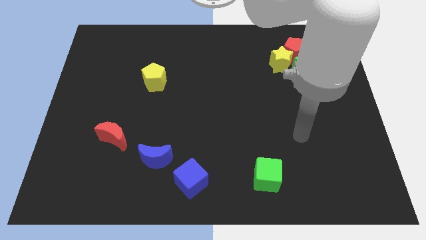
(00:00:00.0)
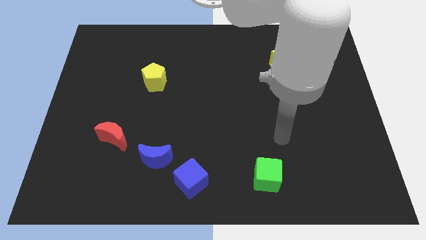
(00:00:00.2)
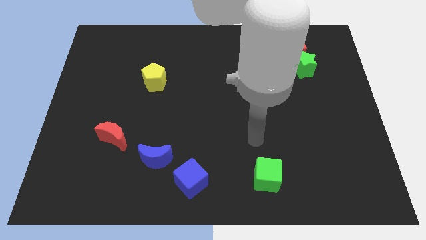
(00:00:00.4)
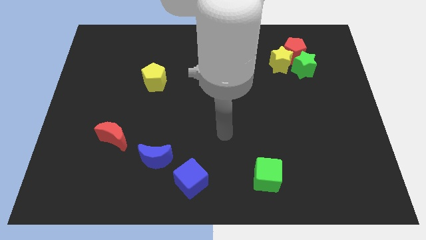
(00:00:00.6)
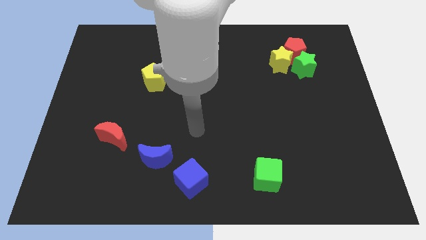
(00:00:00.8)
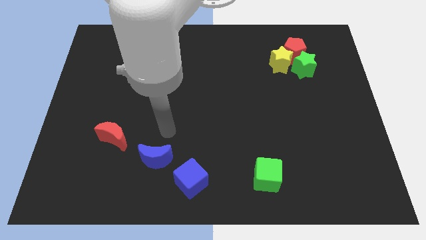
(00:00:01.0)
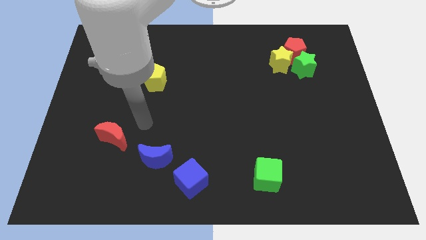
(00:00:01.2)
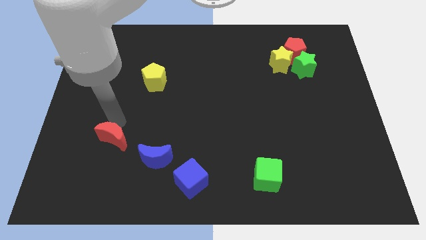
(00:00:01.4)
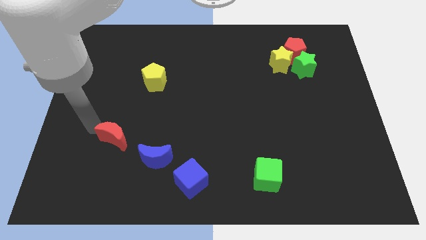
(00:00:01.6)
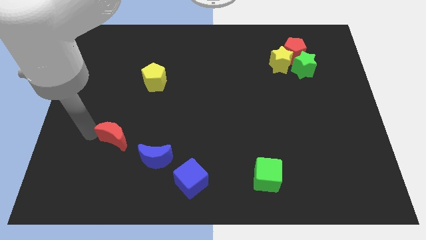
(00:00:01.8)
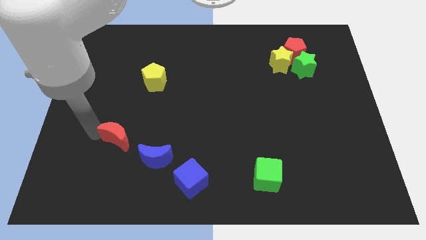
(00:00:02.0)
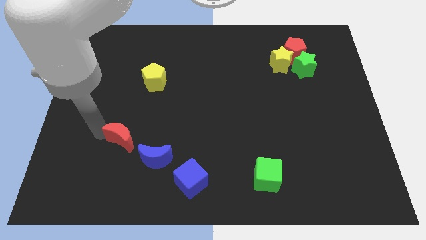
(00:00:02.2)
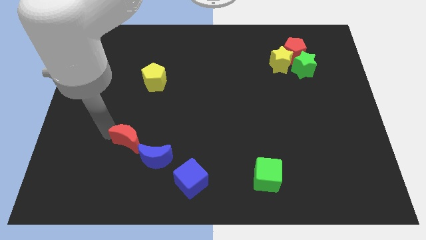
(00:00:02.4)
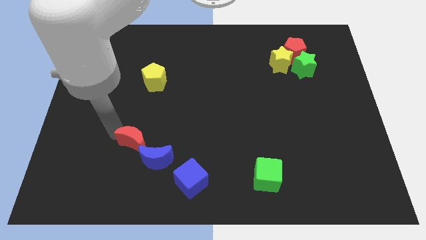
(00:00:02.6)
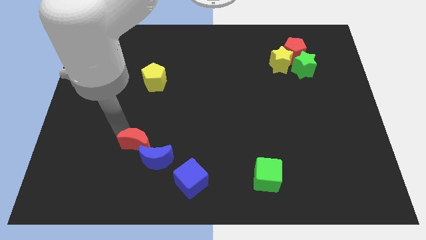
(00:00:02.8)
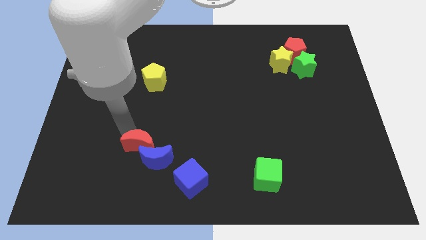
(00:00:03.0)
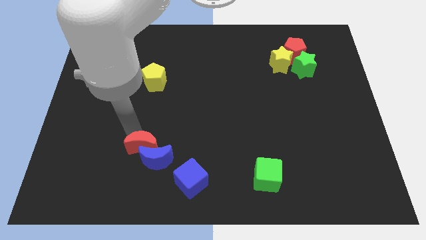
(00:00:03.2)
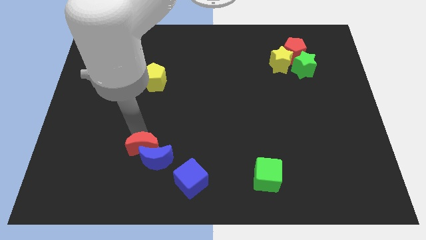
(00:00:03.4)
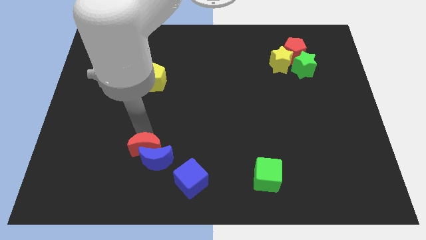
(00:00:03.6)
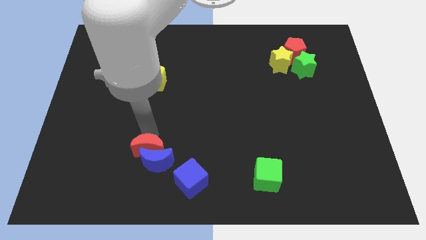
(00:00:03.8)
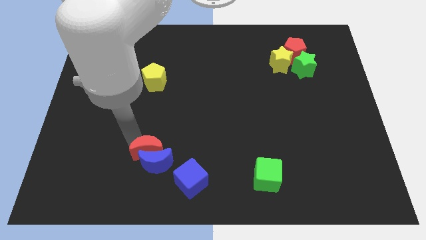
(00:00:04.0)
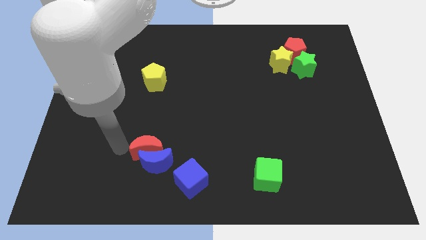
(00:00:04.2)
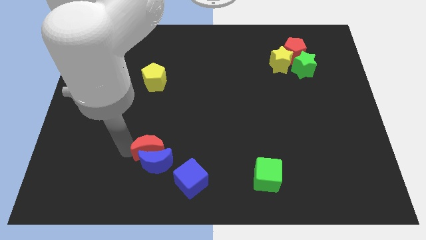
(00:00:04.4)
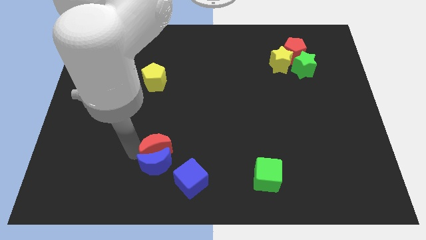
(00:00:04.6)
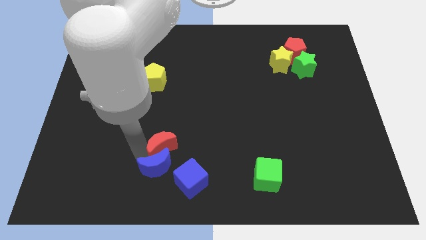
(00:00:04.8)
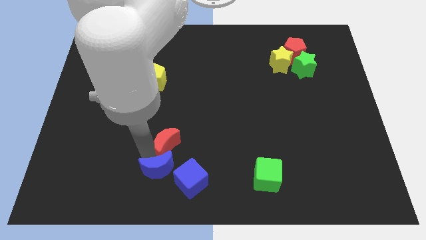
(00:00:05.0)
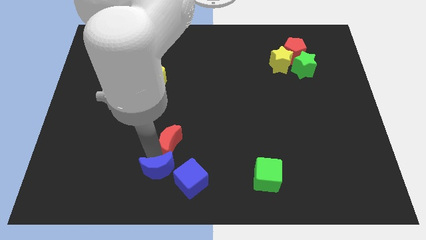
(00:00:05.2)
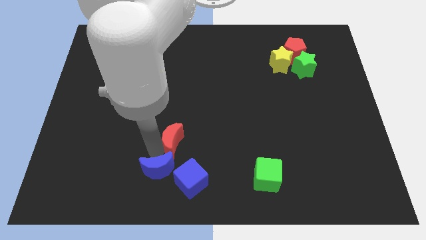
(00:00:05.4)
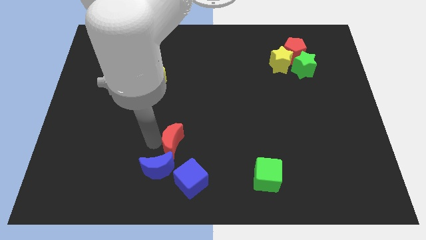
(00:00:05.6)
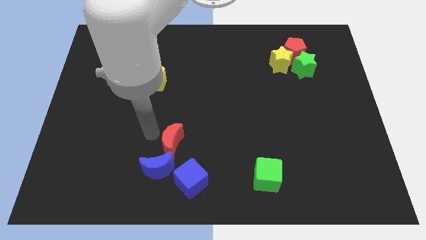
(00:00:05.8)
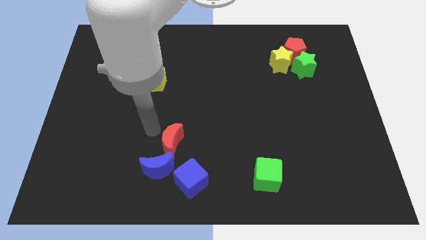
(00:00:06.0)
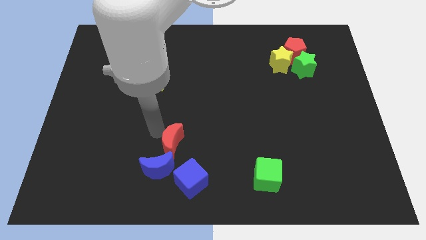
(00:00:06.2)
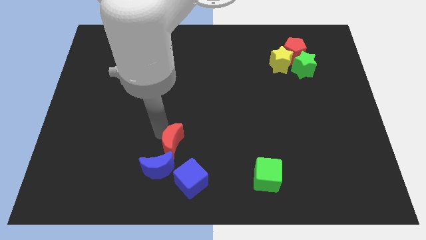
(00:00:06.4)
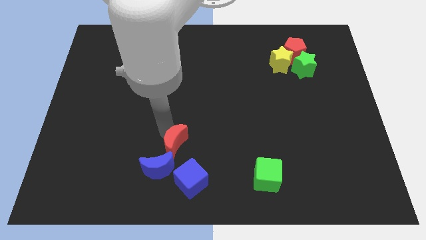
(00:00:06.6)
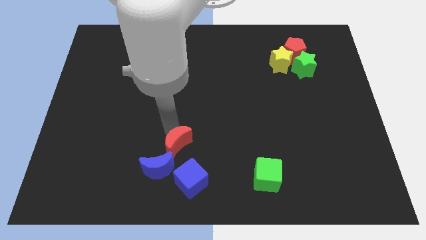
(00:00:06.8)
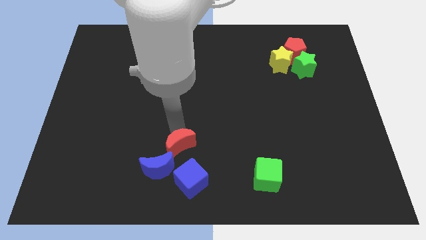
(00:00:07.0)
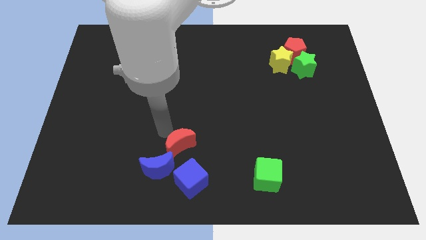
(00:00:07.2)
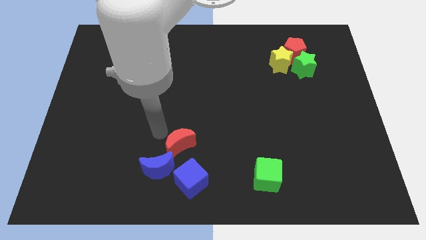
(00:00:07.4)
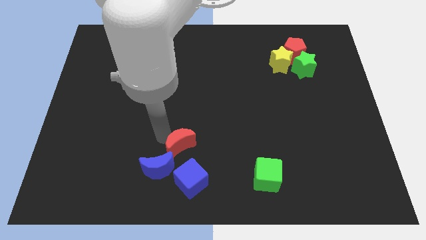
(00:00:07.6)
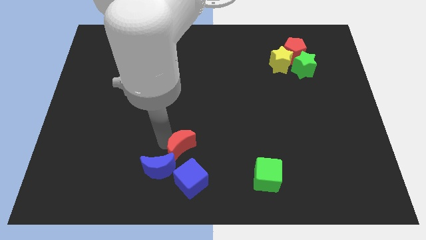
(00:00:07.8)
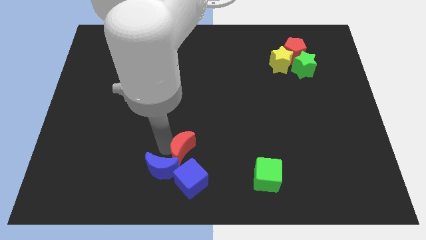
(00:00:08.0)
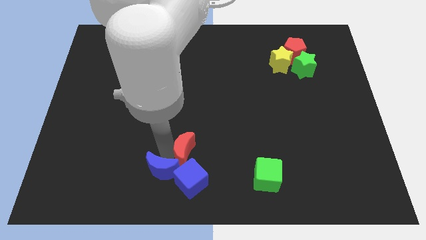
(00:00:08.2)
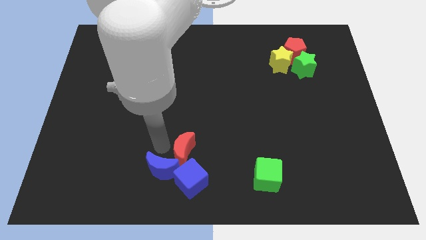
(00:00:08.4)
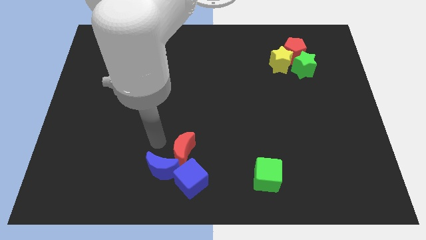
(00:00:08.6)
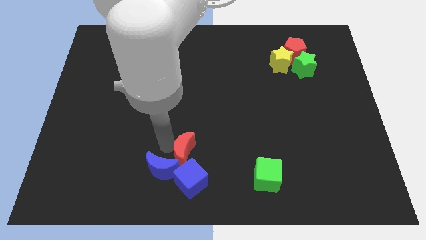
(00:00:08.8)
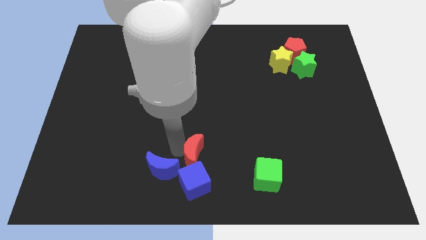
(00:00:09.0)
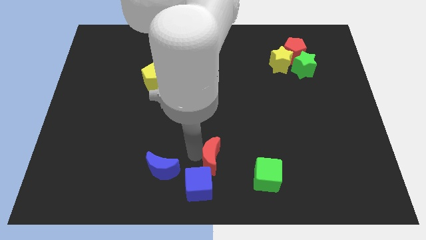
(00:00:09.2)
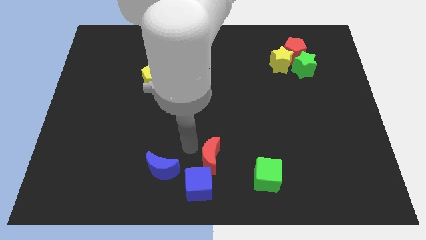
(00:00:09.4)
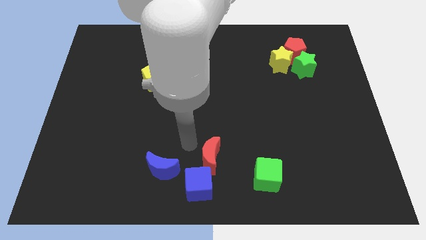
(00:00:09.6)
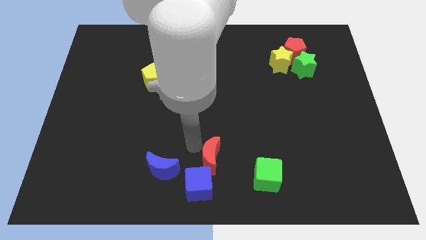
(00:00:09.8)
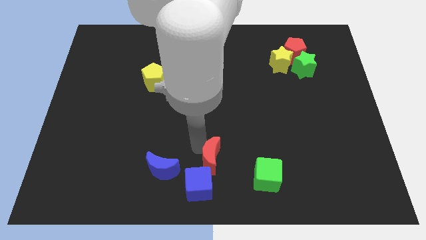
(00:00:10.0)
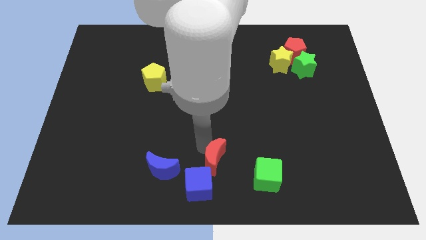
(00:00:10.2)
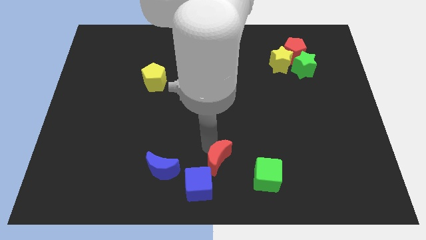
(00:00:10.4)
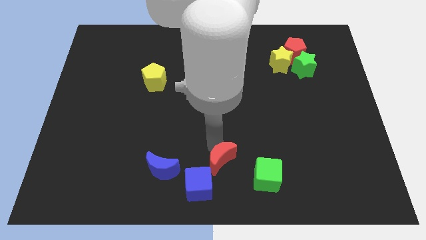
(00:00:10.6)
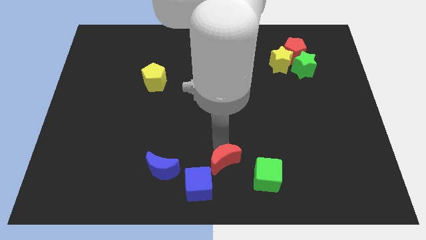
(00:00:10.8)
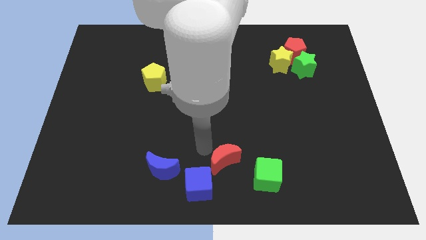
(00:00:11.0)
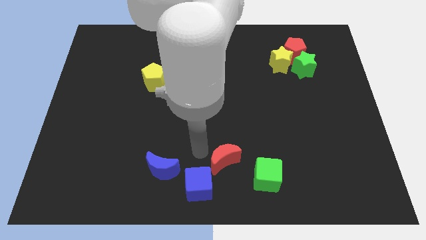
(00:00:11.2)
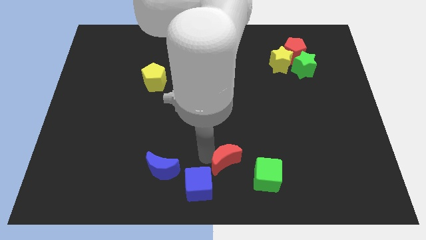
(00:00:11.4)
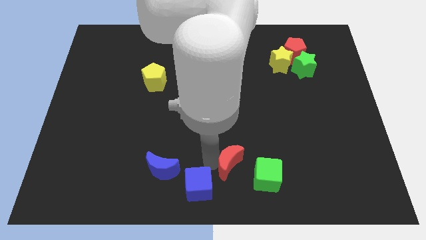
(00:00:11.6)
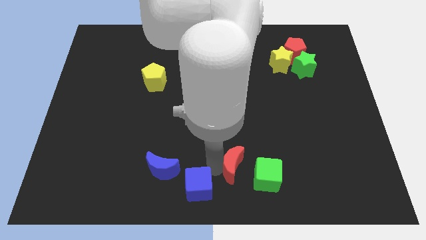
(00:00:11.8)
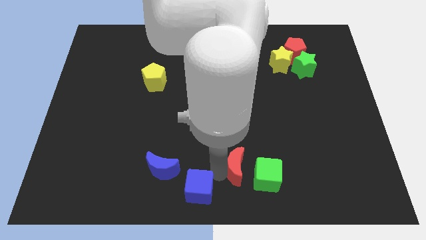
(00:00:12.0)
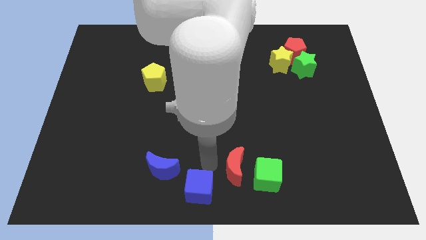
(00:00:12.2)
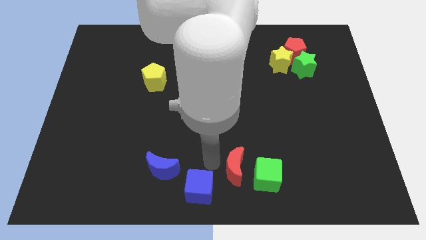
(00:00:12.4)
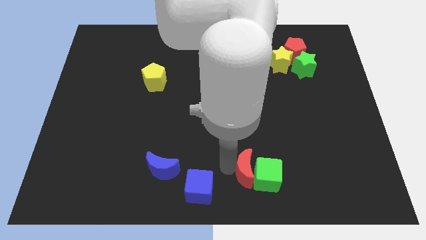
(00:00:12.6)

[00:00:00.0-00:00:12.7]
push the red moon close to the green cube

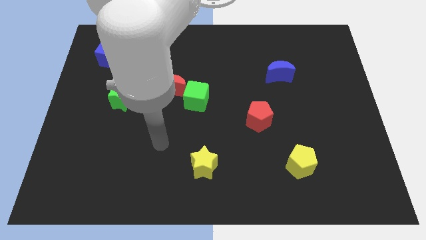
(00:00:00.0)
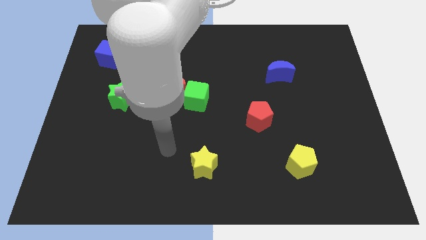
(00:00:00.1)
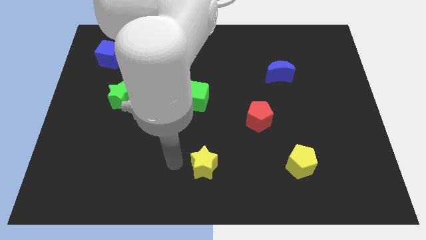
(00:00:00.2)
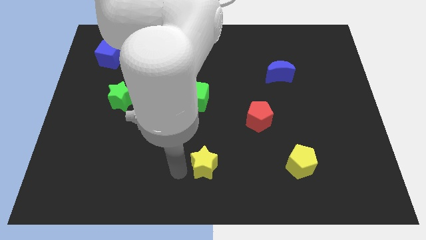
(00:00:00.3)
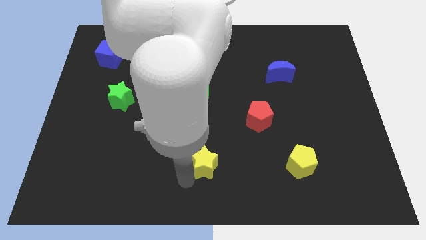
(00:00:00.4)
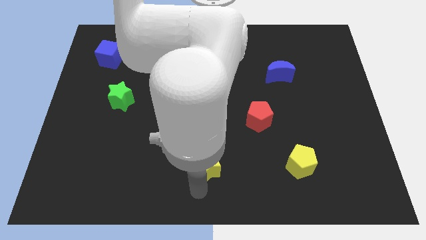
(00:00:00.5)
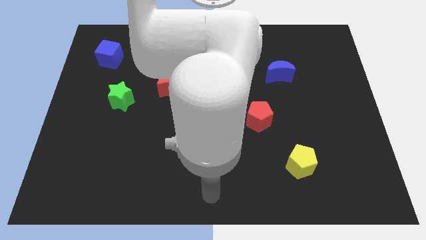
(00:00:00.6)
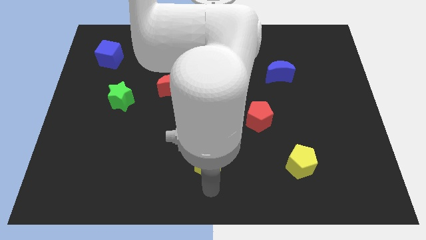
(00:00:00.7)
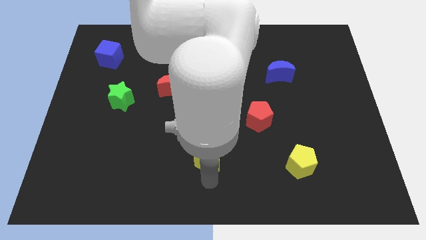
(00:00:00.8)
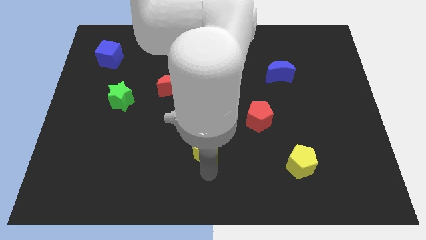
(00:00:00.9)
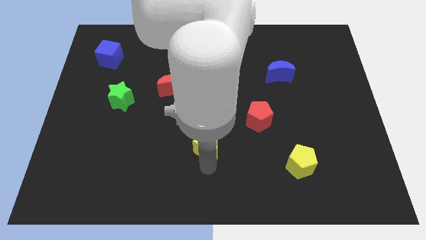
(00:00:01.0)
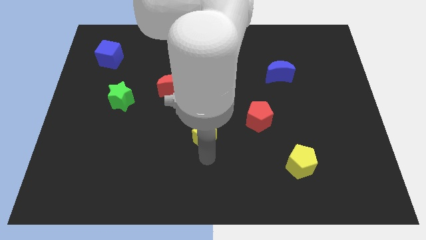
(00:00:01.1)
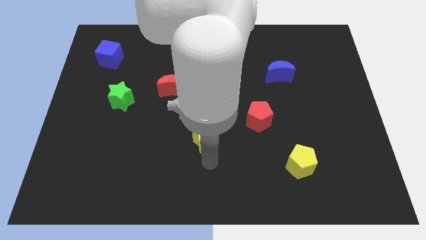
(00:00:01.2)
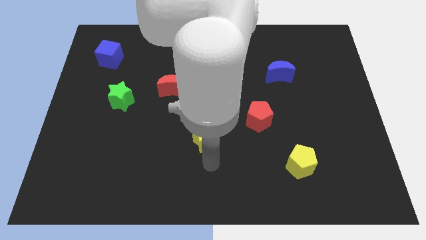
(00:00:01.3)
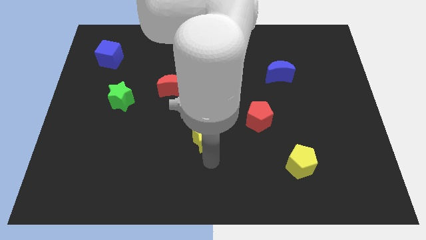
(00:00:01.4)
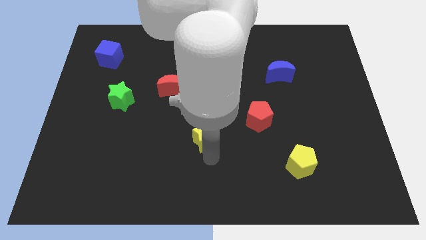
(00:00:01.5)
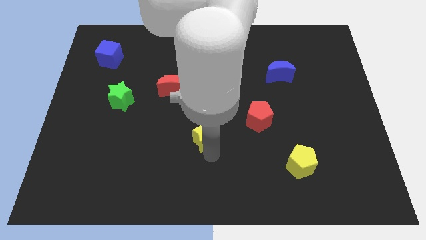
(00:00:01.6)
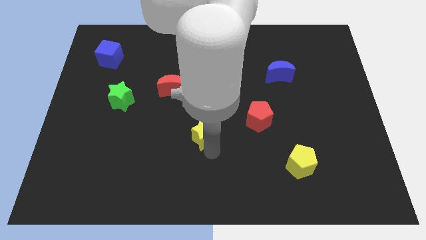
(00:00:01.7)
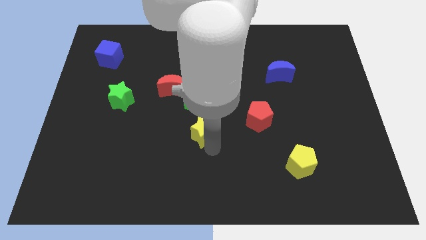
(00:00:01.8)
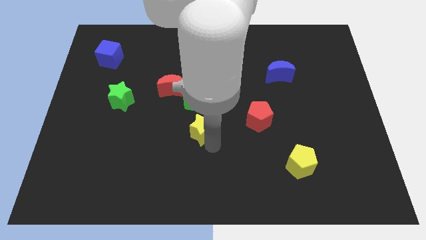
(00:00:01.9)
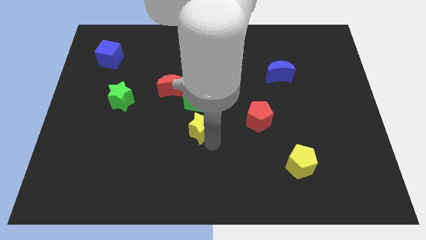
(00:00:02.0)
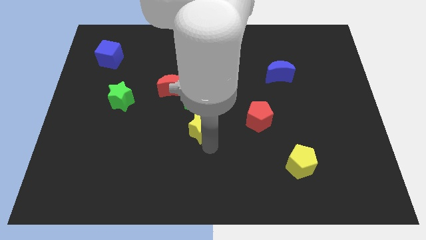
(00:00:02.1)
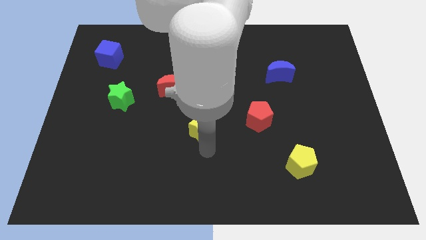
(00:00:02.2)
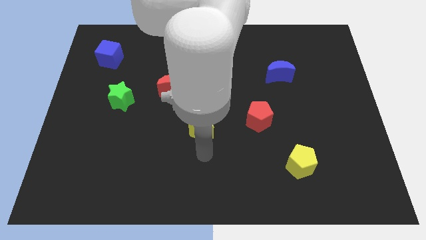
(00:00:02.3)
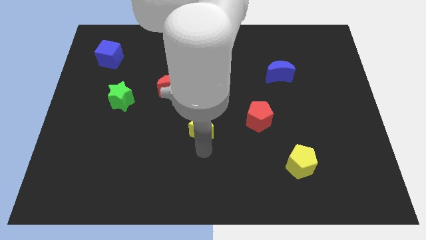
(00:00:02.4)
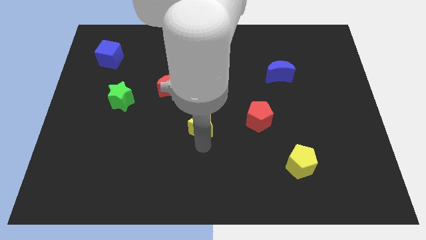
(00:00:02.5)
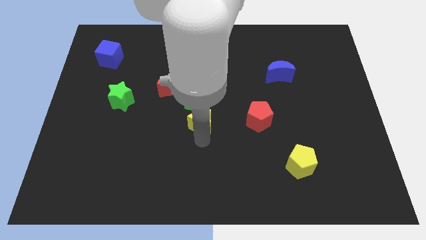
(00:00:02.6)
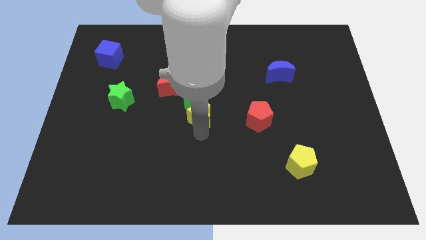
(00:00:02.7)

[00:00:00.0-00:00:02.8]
put the yellow star to the green cube
